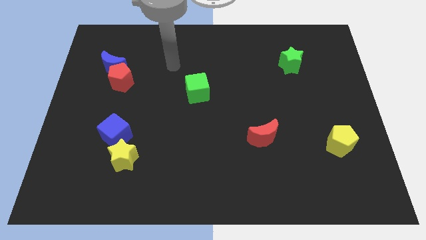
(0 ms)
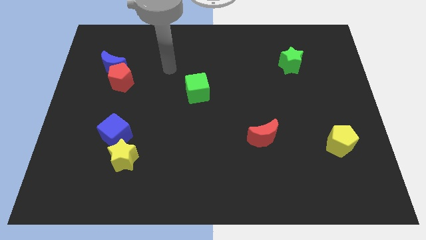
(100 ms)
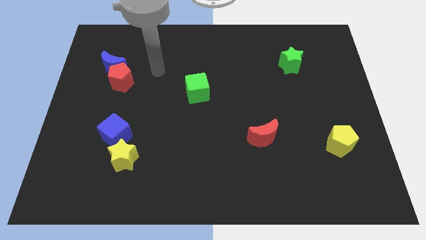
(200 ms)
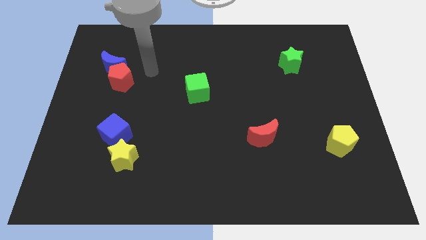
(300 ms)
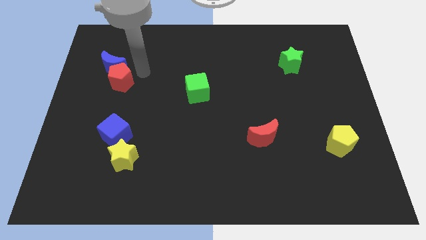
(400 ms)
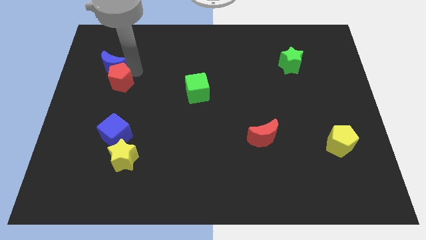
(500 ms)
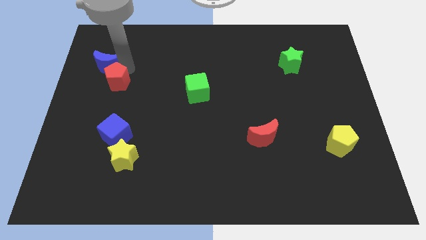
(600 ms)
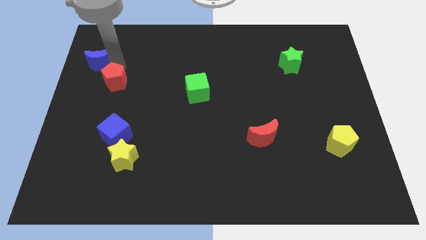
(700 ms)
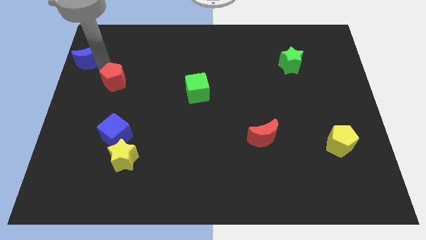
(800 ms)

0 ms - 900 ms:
pull the red pentagon apart from the blue moon

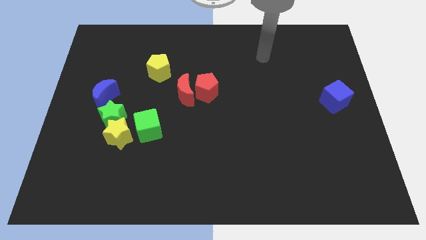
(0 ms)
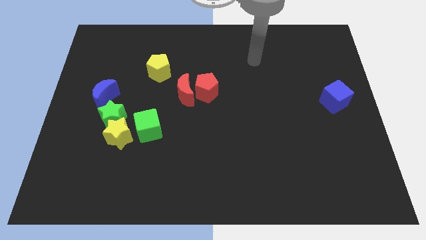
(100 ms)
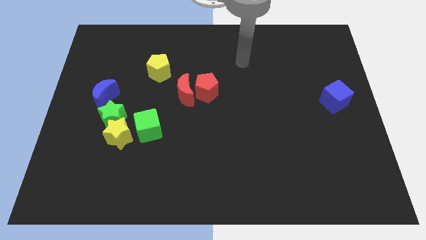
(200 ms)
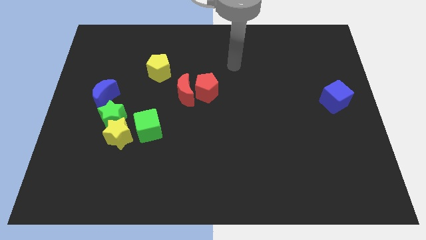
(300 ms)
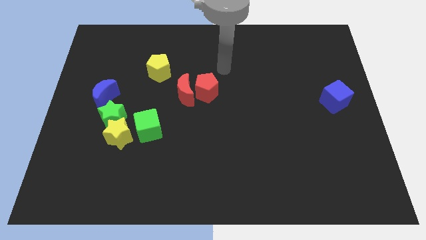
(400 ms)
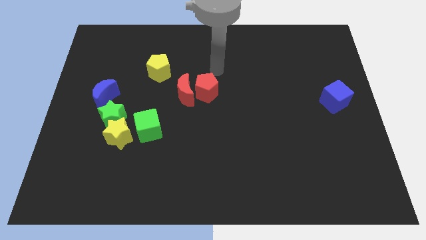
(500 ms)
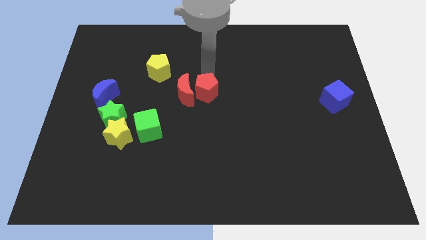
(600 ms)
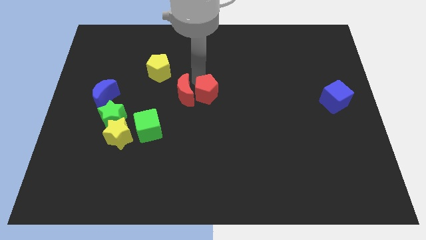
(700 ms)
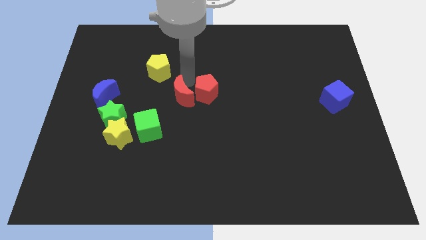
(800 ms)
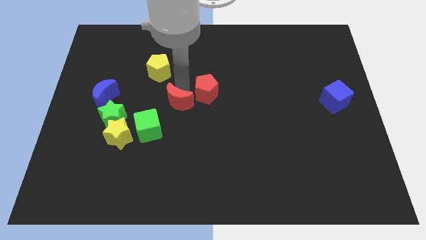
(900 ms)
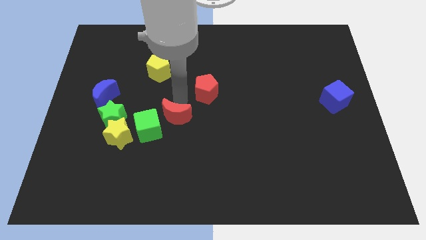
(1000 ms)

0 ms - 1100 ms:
separate the red pentagon from the red moon

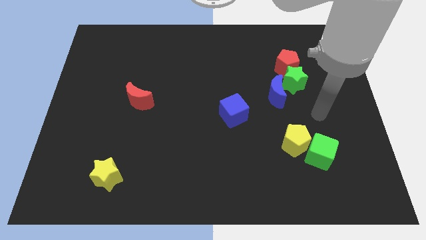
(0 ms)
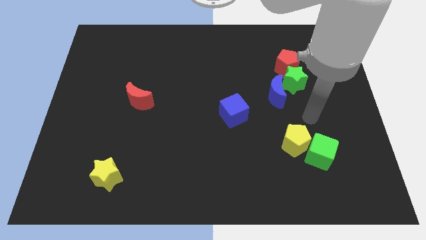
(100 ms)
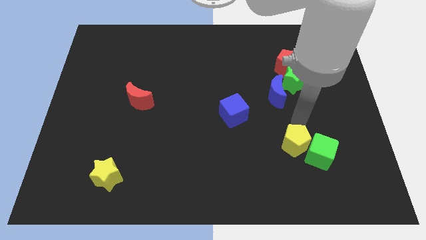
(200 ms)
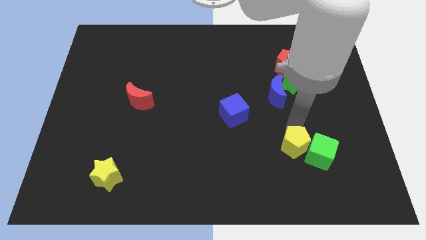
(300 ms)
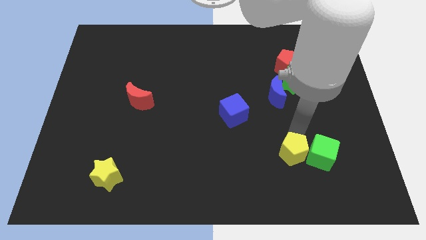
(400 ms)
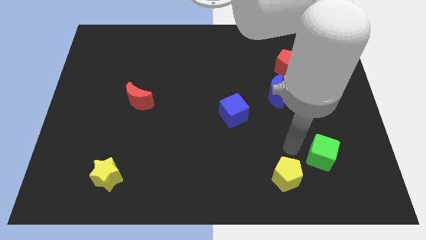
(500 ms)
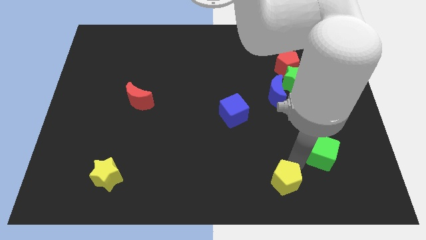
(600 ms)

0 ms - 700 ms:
separate the green cube from the yellow pentagon

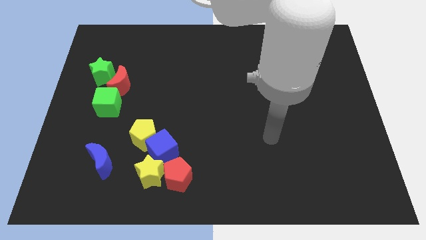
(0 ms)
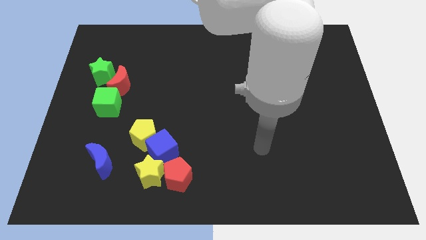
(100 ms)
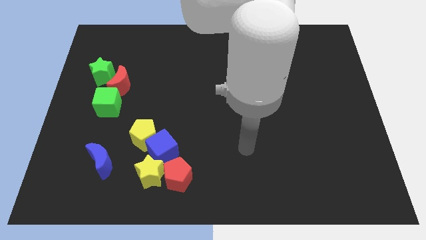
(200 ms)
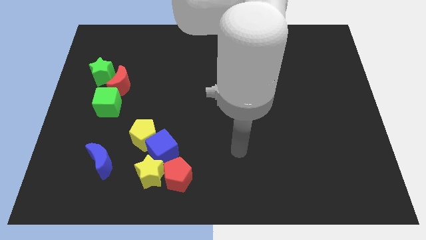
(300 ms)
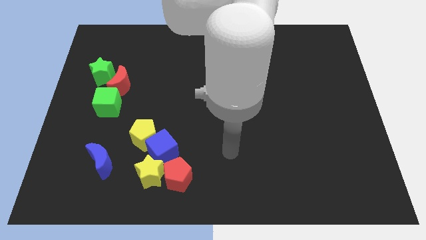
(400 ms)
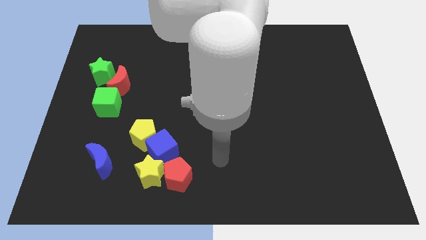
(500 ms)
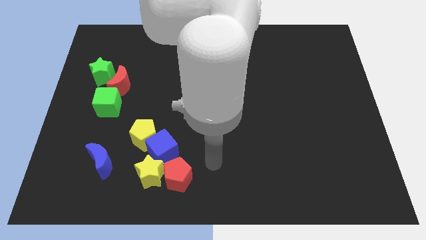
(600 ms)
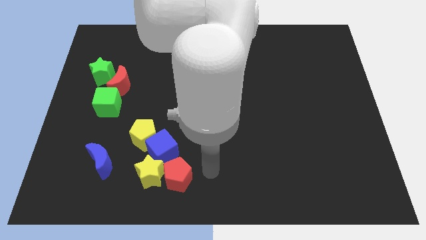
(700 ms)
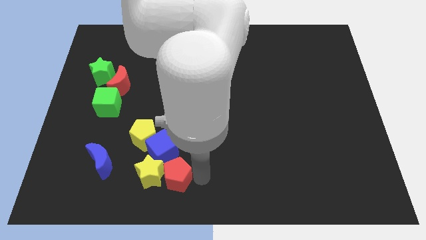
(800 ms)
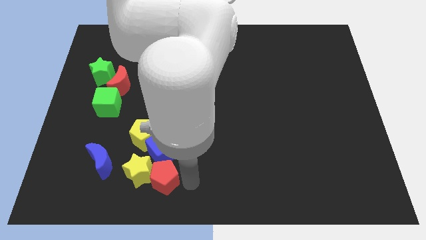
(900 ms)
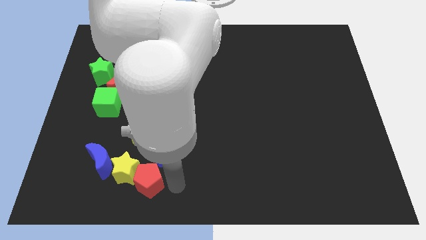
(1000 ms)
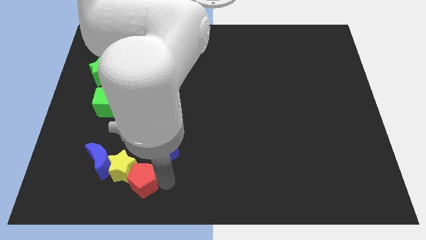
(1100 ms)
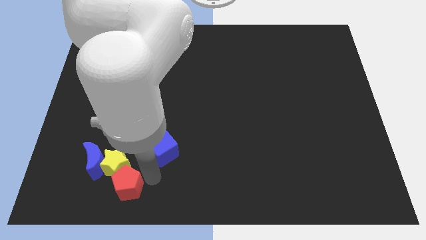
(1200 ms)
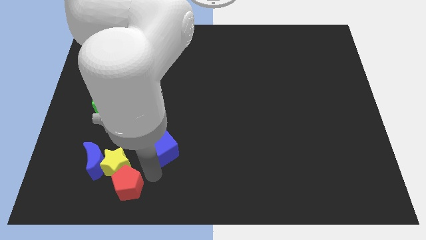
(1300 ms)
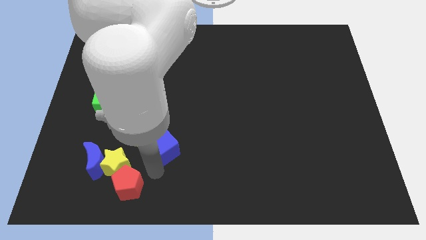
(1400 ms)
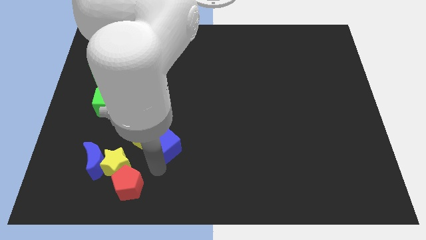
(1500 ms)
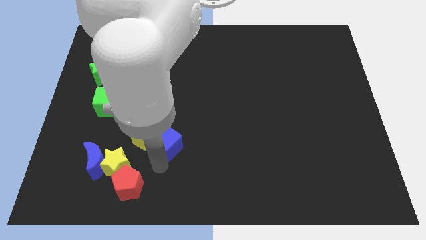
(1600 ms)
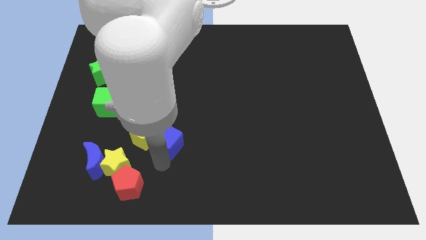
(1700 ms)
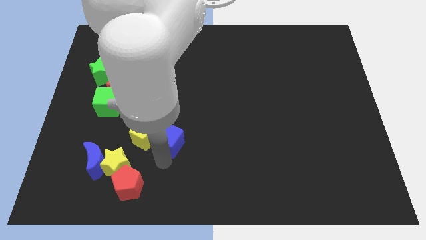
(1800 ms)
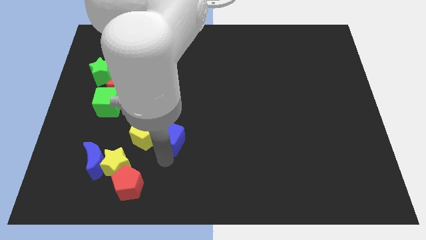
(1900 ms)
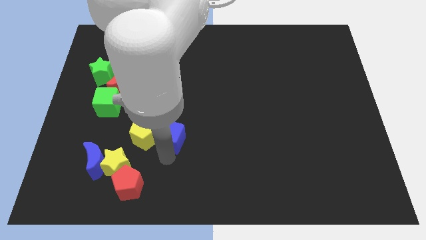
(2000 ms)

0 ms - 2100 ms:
pull the blue cube apart from the clump

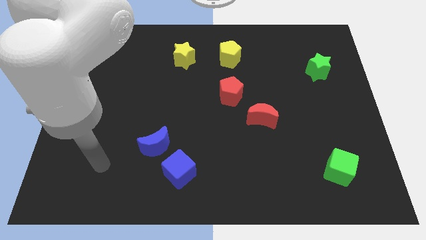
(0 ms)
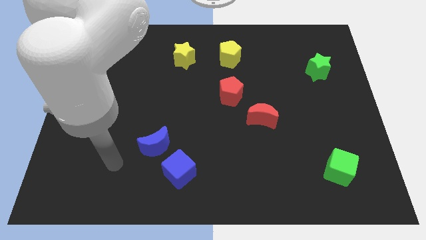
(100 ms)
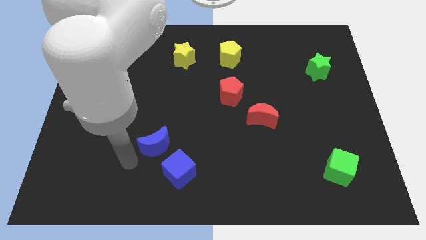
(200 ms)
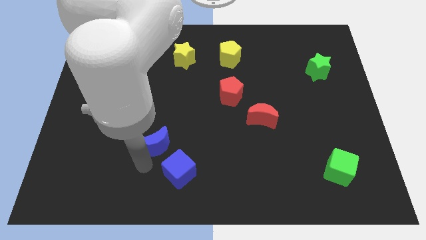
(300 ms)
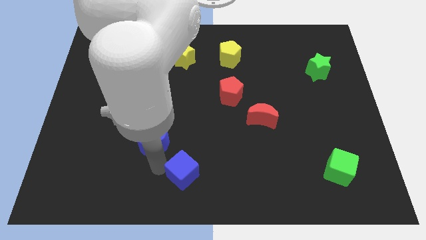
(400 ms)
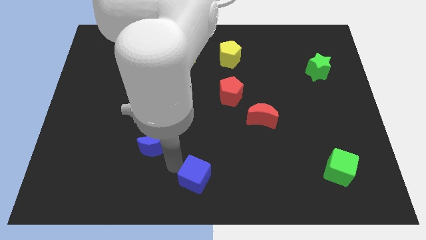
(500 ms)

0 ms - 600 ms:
move the blue moon away from the blue cube

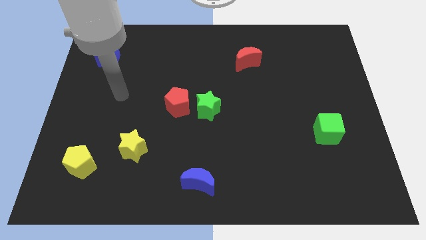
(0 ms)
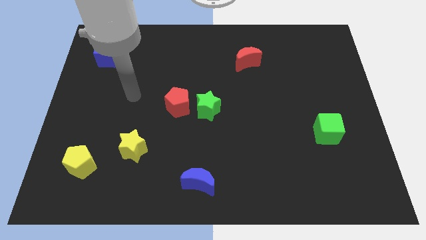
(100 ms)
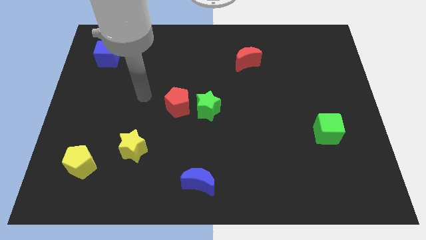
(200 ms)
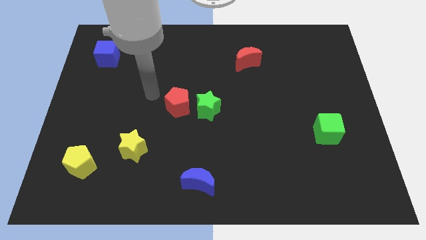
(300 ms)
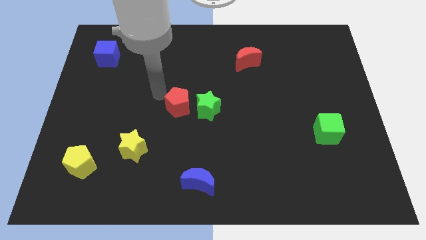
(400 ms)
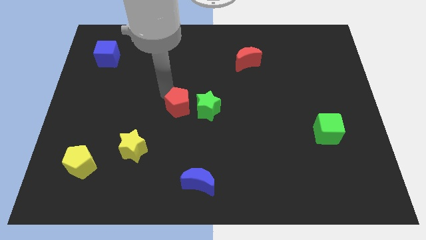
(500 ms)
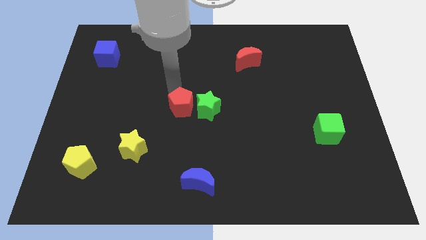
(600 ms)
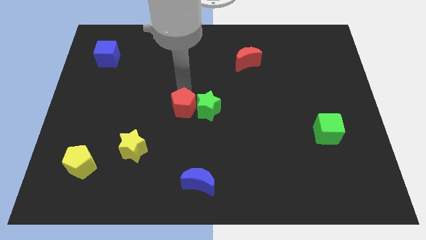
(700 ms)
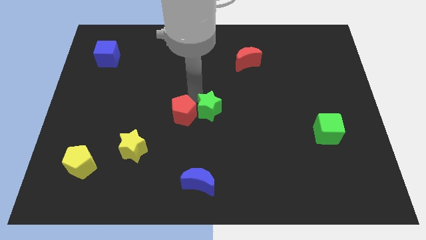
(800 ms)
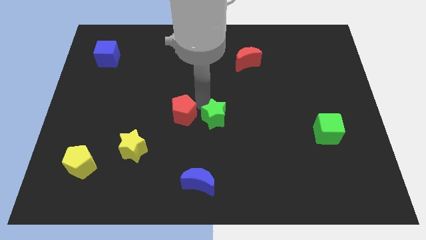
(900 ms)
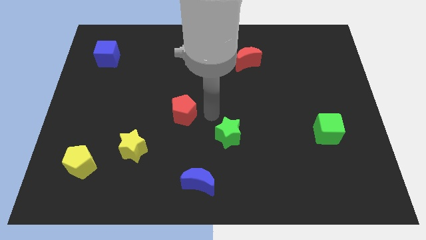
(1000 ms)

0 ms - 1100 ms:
pull the red pentagon apart from the green star

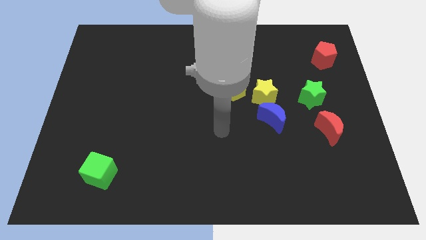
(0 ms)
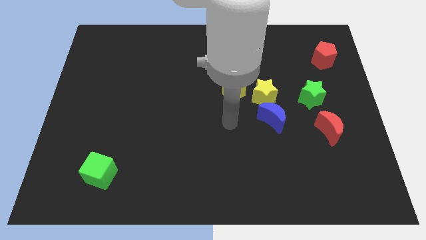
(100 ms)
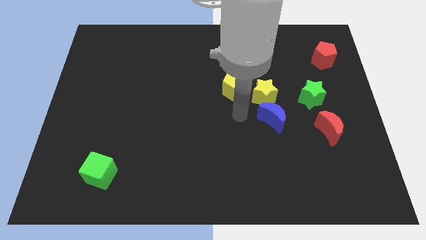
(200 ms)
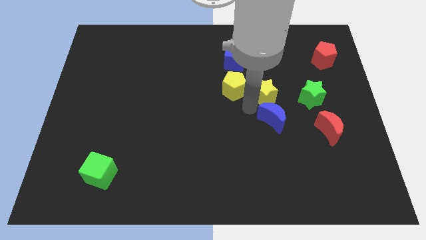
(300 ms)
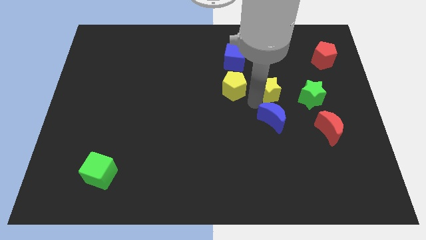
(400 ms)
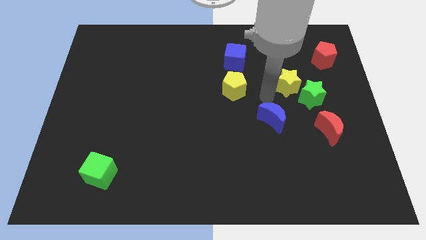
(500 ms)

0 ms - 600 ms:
separate the blue moon from the yellow star

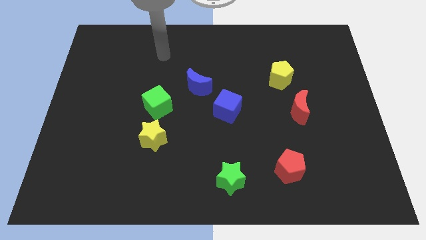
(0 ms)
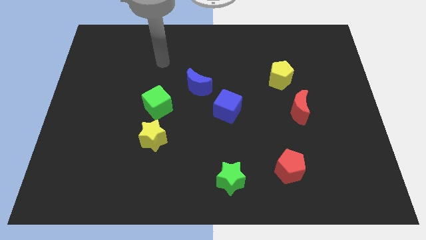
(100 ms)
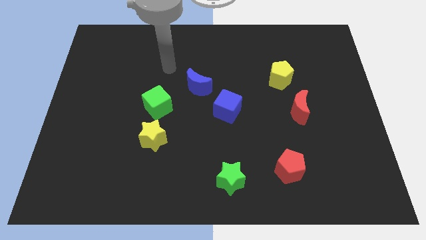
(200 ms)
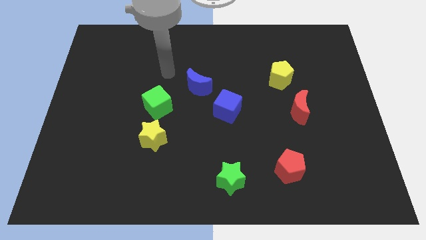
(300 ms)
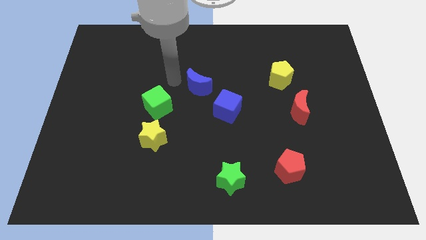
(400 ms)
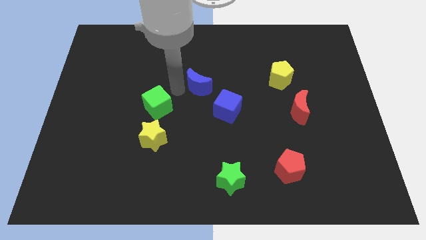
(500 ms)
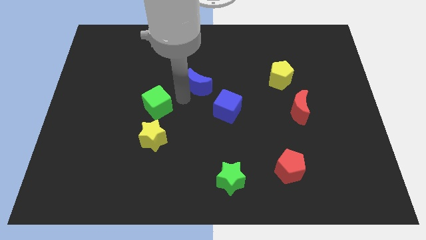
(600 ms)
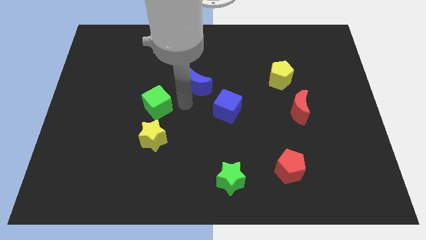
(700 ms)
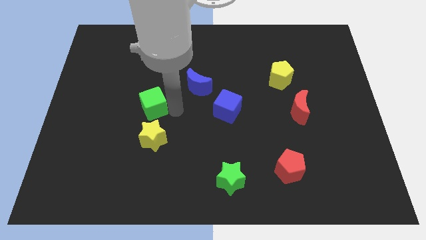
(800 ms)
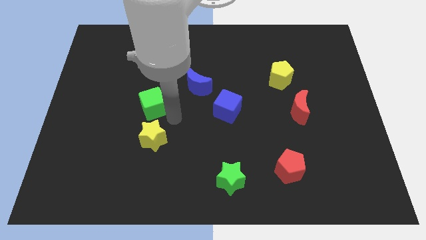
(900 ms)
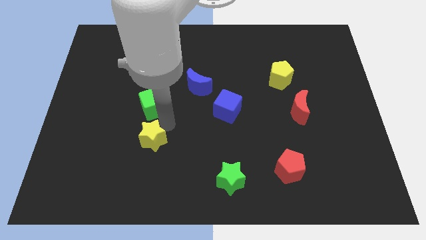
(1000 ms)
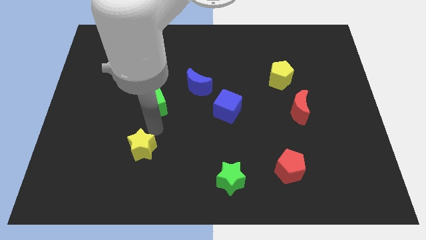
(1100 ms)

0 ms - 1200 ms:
pull the green cube apart from the yellow star

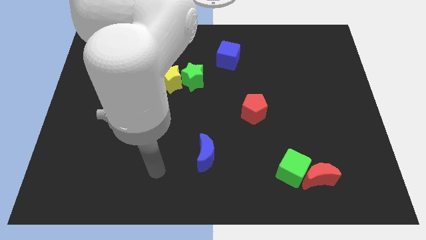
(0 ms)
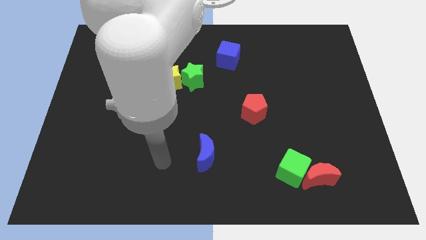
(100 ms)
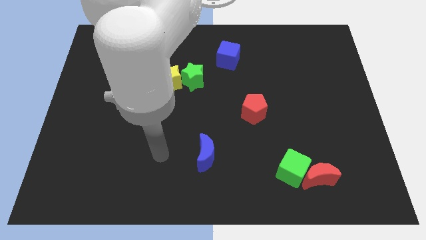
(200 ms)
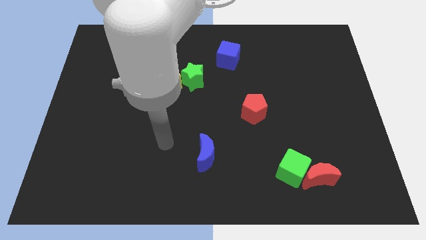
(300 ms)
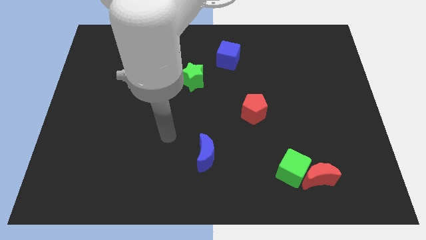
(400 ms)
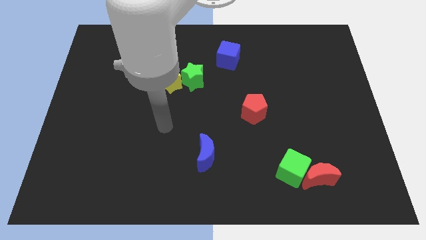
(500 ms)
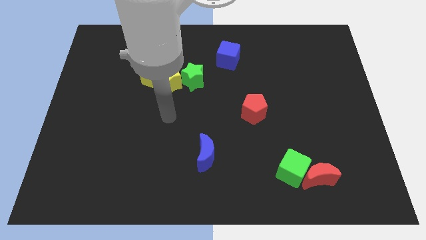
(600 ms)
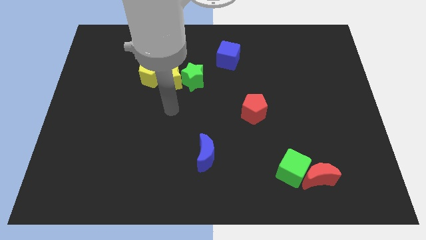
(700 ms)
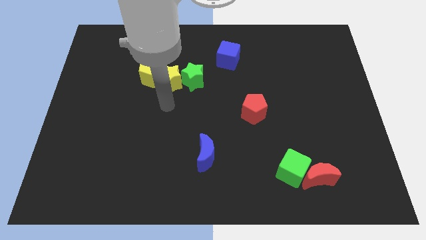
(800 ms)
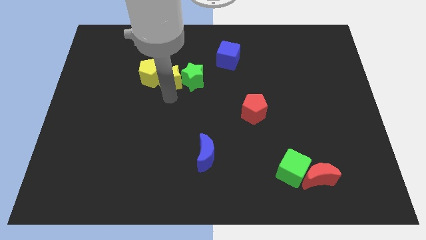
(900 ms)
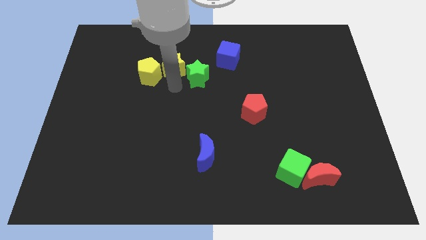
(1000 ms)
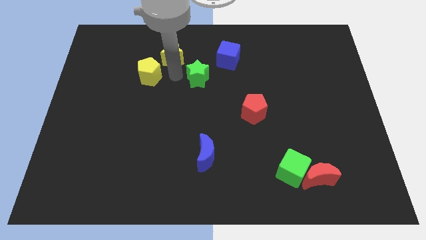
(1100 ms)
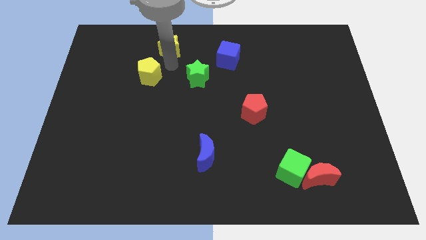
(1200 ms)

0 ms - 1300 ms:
pull the yellow pentagon apart from the yellow star
